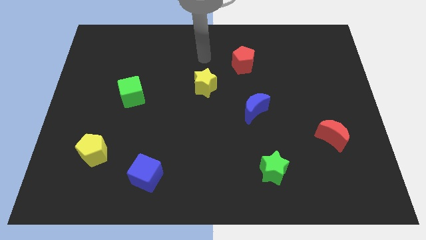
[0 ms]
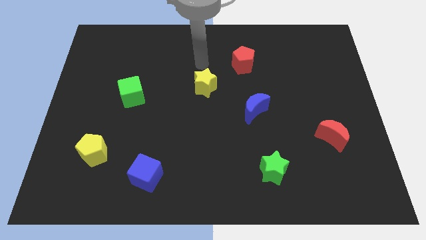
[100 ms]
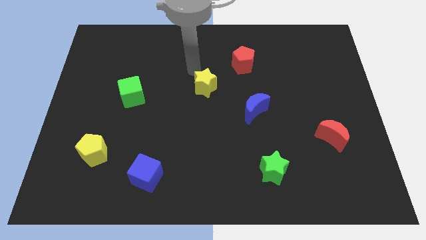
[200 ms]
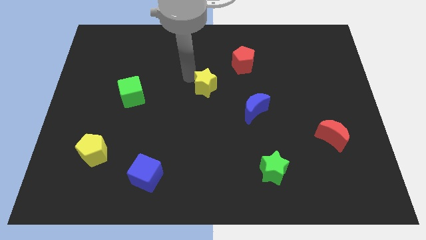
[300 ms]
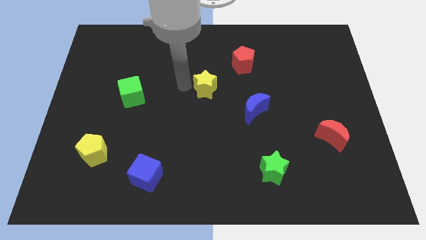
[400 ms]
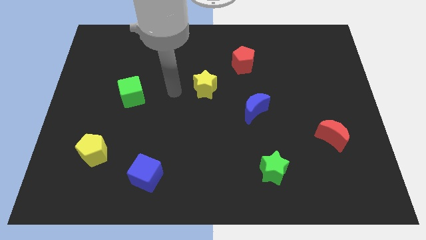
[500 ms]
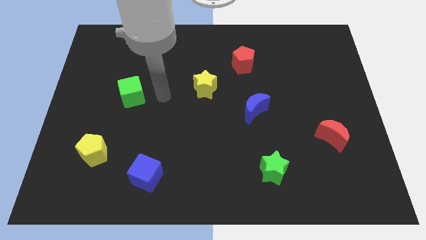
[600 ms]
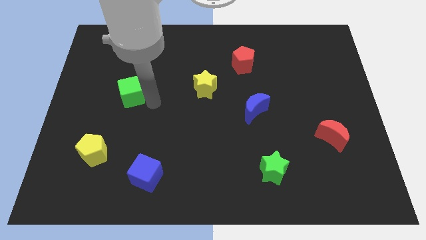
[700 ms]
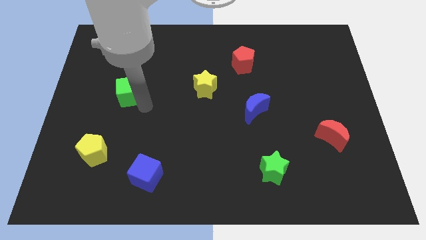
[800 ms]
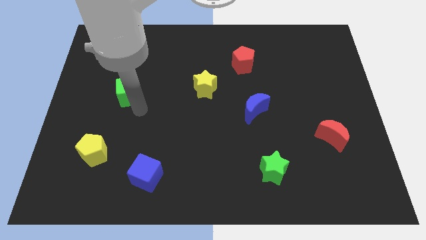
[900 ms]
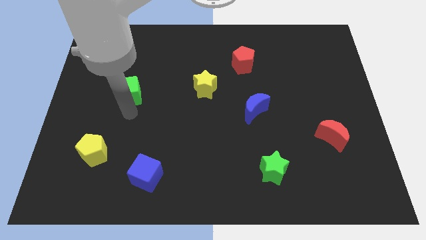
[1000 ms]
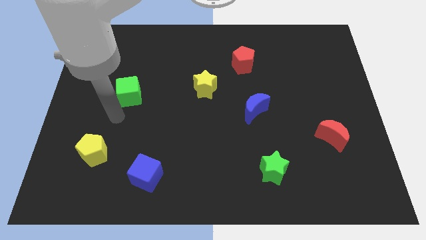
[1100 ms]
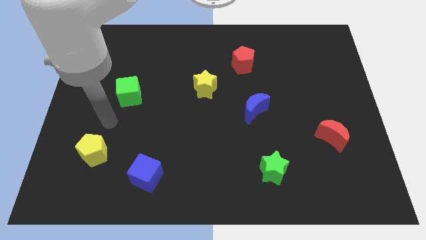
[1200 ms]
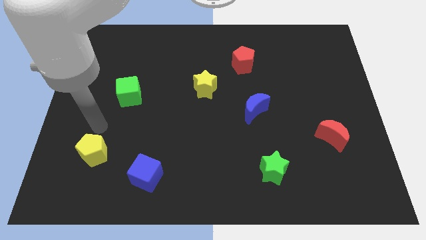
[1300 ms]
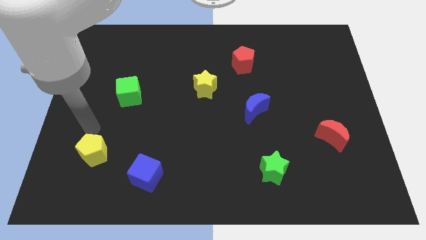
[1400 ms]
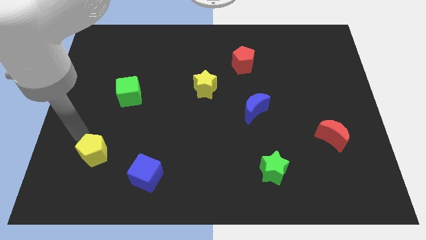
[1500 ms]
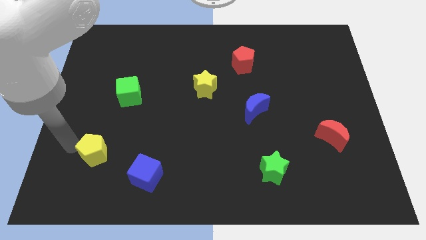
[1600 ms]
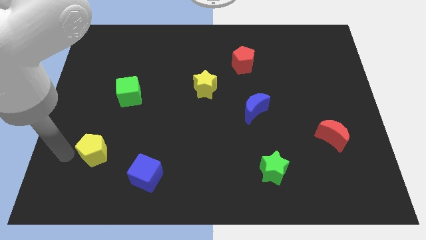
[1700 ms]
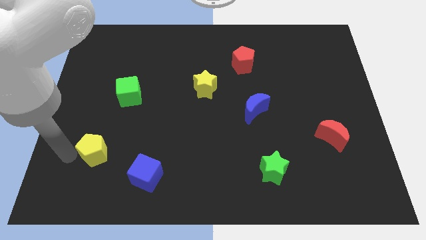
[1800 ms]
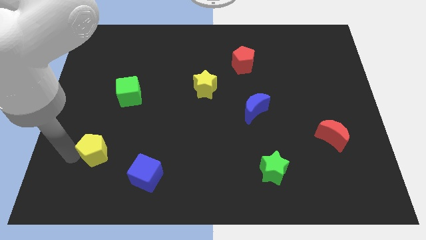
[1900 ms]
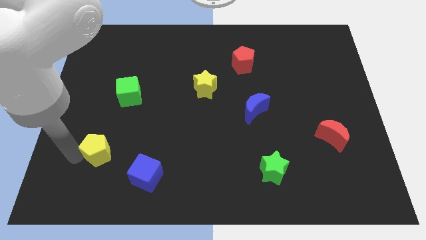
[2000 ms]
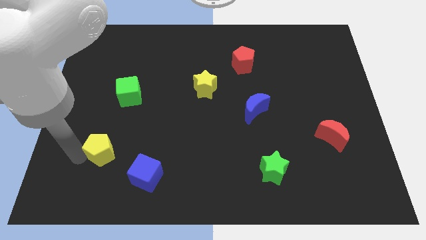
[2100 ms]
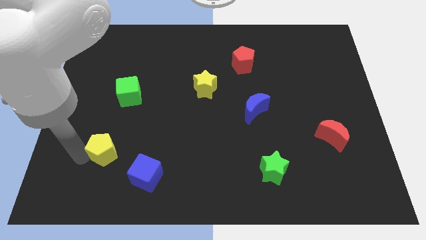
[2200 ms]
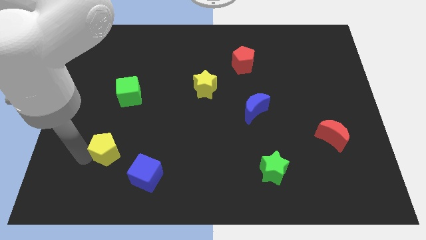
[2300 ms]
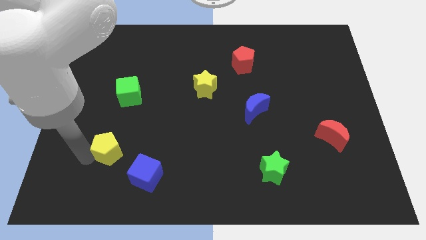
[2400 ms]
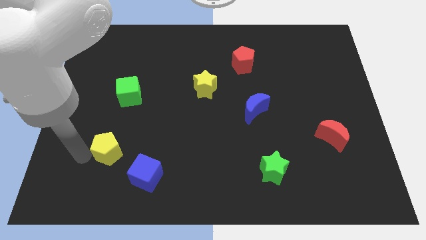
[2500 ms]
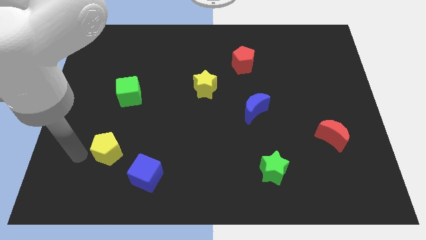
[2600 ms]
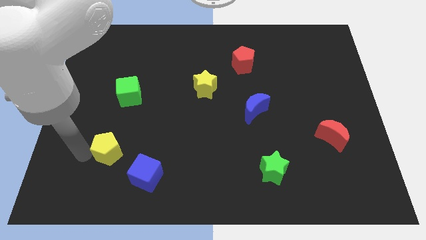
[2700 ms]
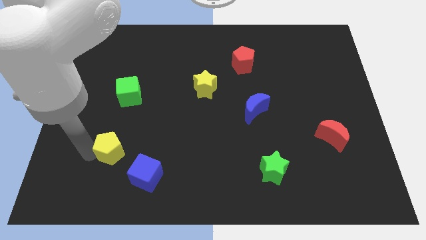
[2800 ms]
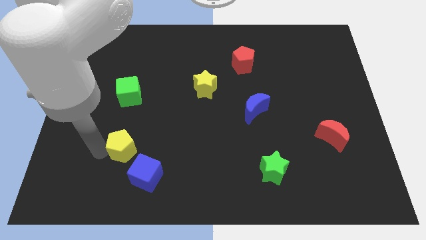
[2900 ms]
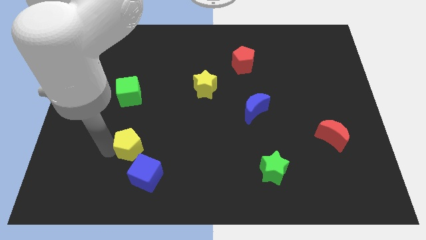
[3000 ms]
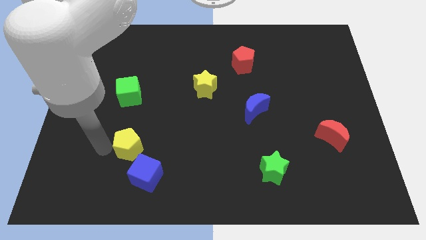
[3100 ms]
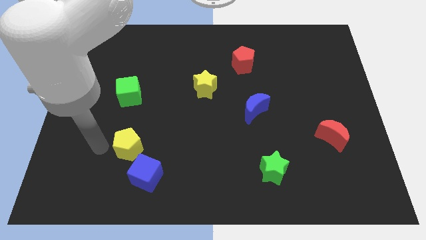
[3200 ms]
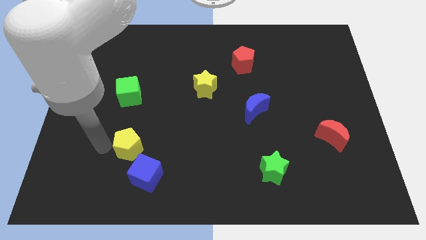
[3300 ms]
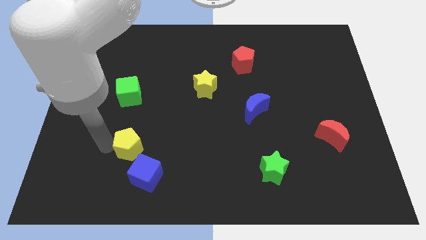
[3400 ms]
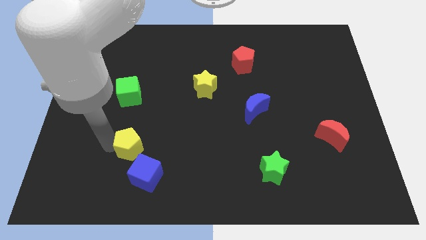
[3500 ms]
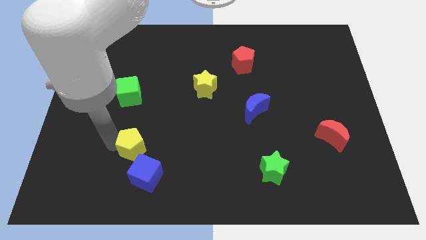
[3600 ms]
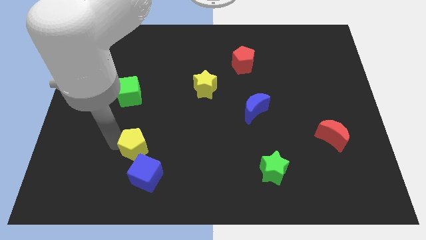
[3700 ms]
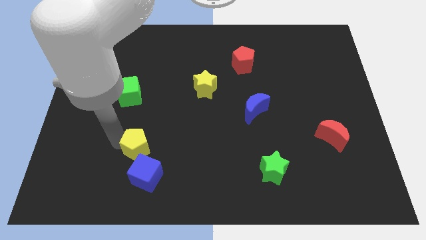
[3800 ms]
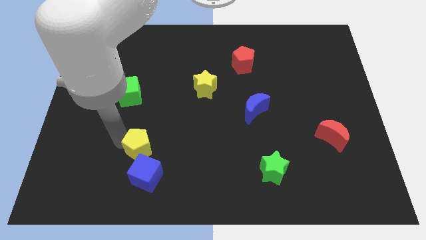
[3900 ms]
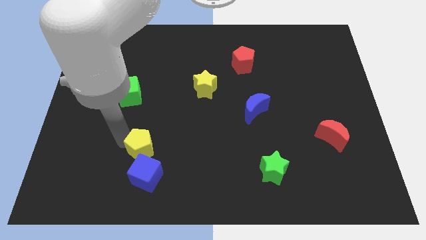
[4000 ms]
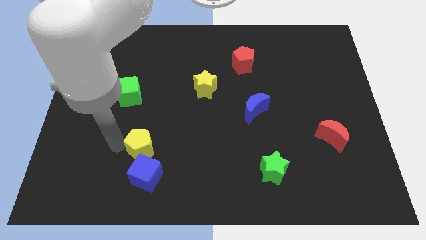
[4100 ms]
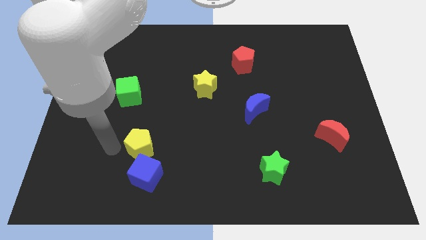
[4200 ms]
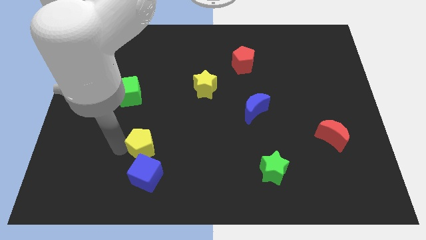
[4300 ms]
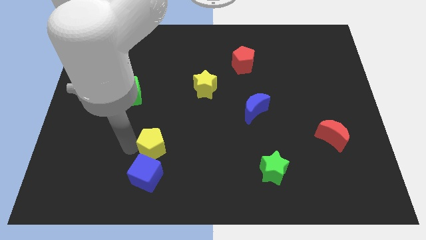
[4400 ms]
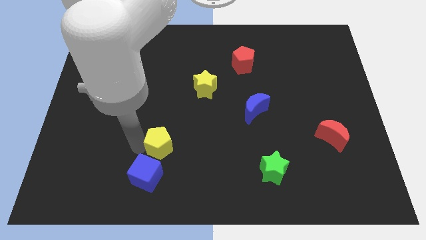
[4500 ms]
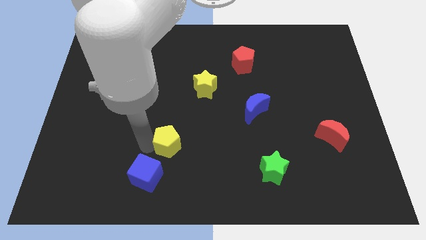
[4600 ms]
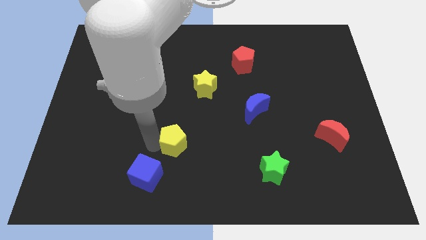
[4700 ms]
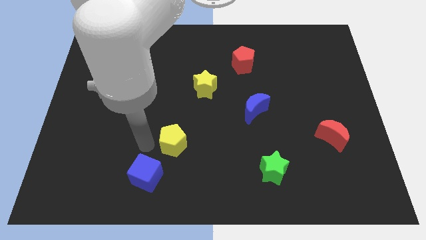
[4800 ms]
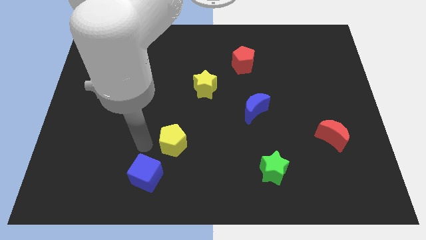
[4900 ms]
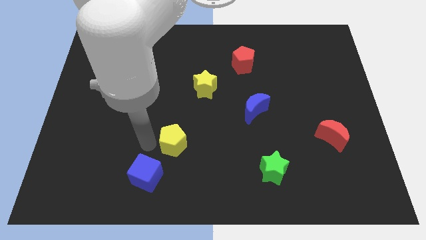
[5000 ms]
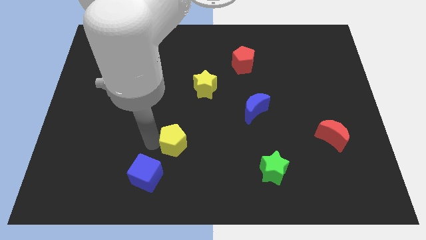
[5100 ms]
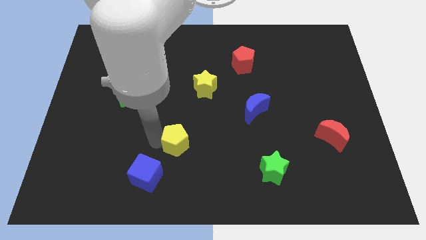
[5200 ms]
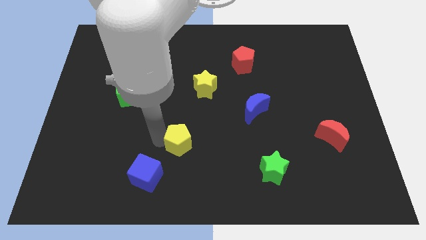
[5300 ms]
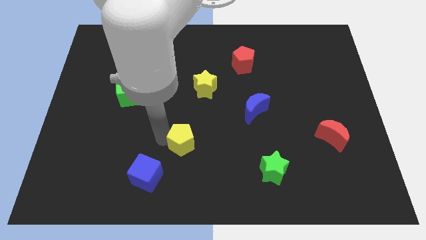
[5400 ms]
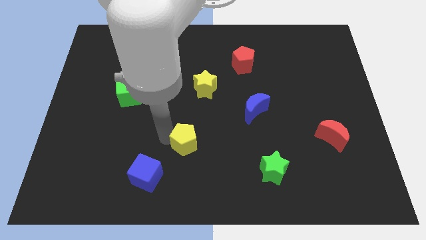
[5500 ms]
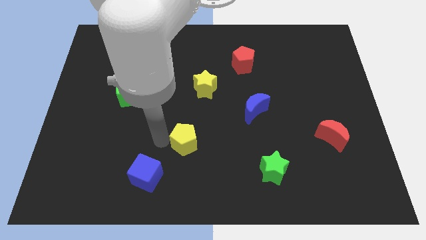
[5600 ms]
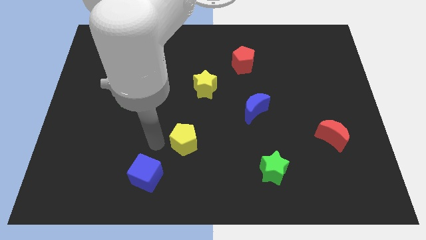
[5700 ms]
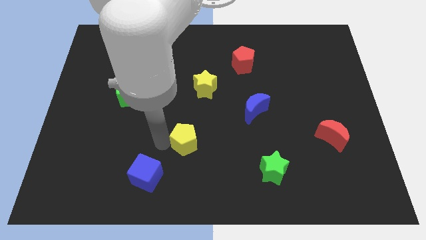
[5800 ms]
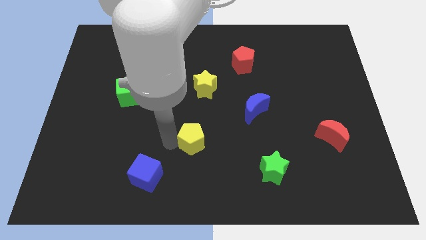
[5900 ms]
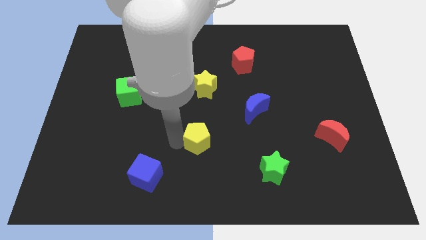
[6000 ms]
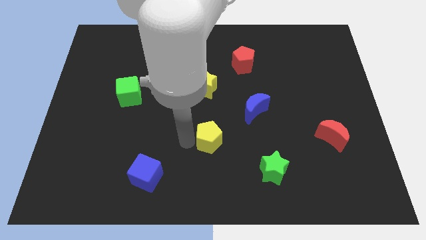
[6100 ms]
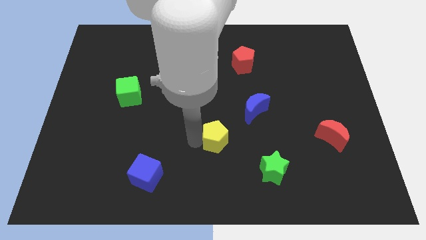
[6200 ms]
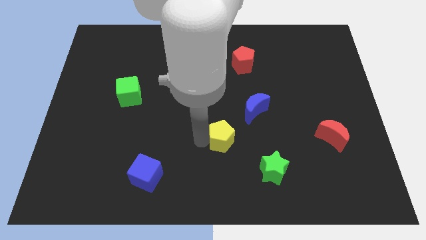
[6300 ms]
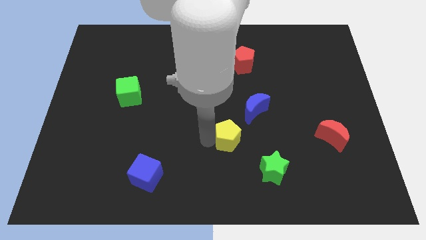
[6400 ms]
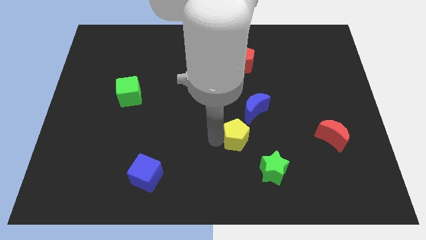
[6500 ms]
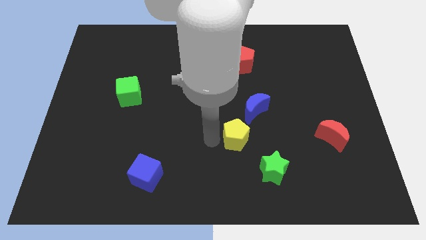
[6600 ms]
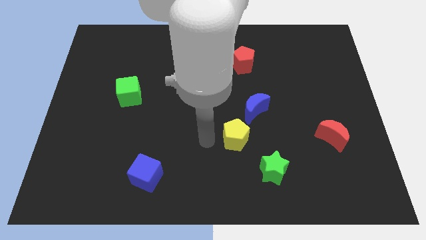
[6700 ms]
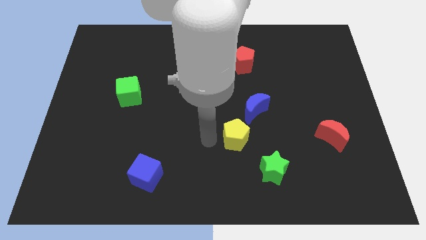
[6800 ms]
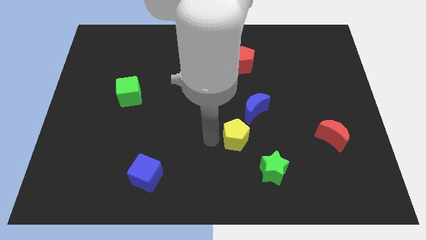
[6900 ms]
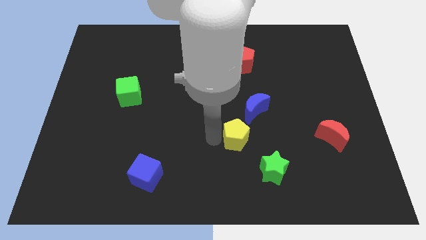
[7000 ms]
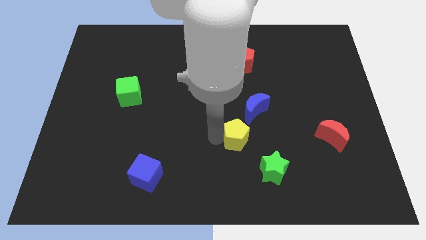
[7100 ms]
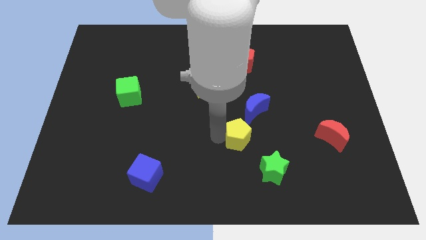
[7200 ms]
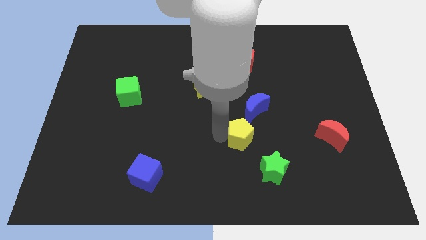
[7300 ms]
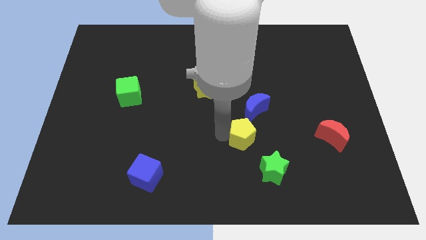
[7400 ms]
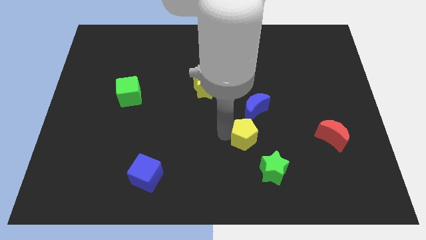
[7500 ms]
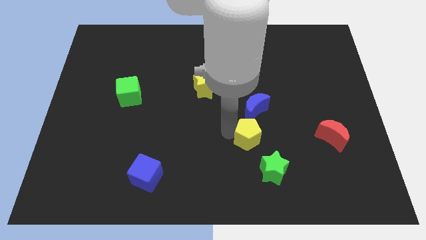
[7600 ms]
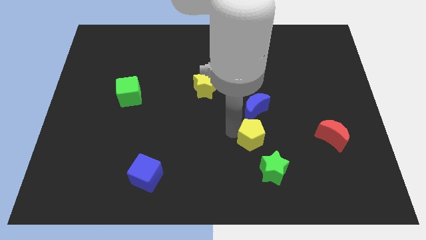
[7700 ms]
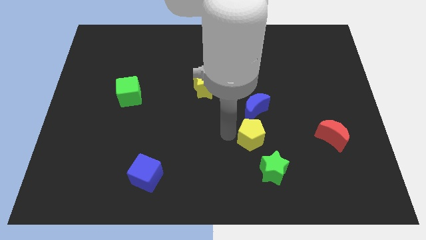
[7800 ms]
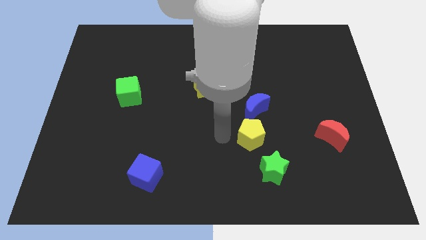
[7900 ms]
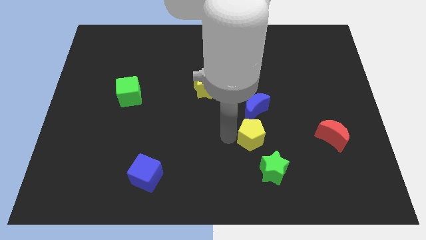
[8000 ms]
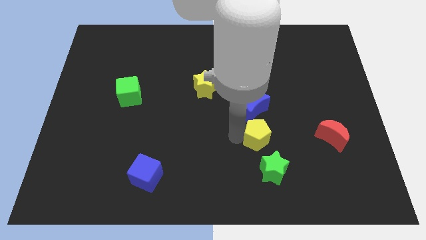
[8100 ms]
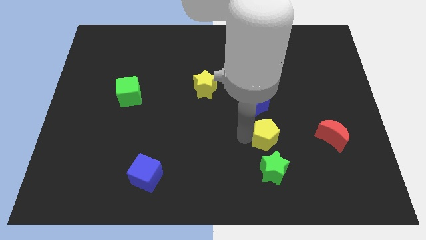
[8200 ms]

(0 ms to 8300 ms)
move the yellow pentagon to the left of the red moon
